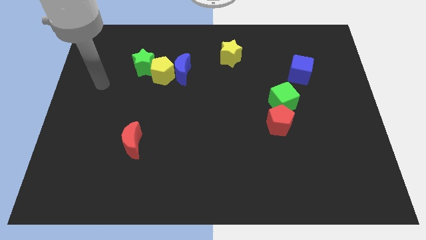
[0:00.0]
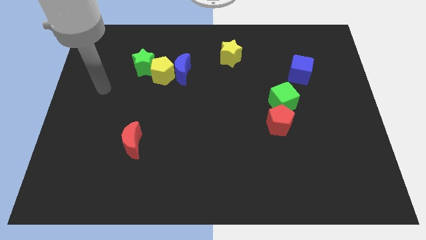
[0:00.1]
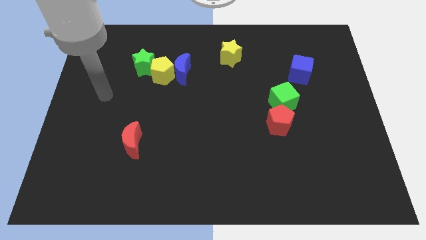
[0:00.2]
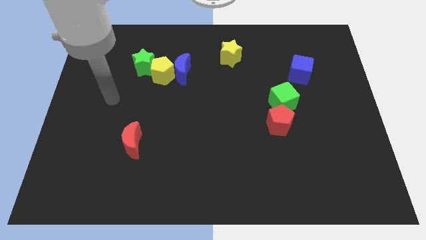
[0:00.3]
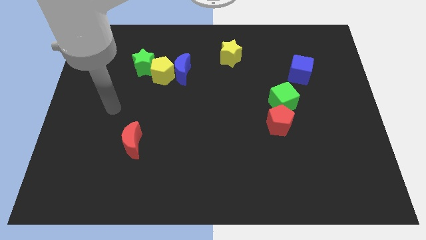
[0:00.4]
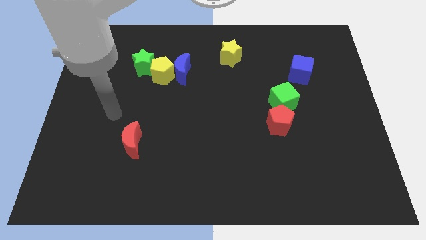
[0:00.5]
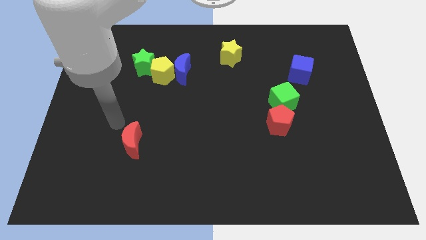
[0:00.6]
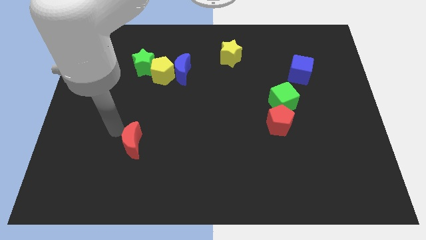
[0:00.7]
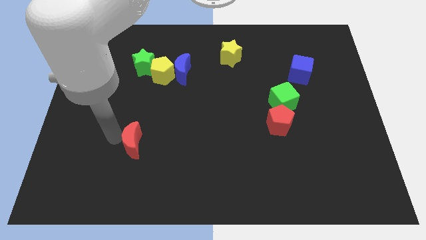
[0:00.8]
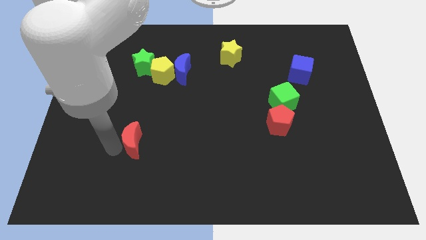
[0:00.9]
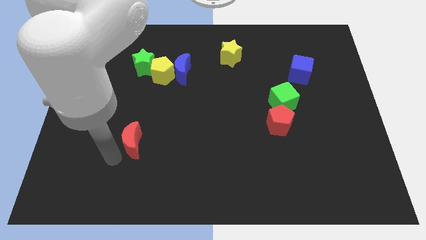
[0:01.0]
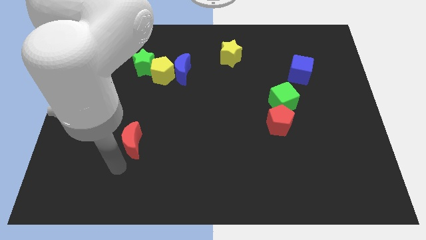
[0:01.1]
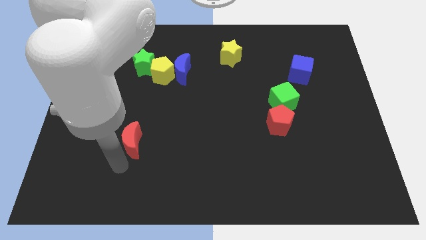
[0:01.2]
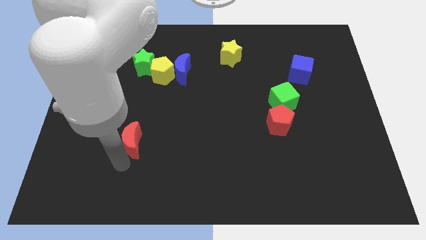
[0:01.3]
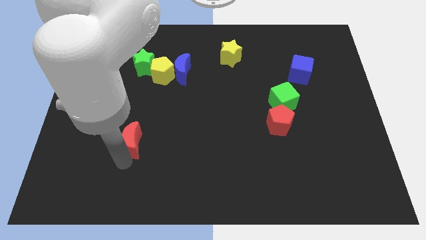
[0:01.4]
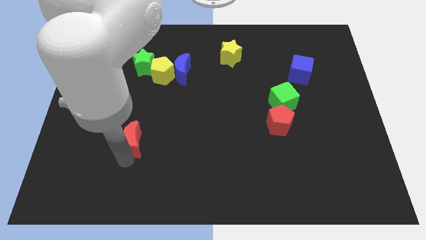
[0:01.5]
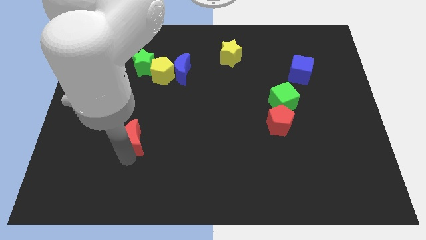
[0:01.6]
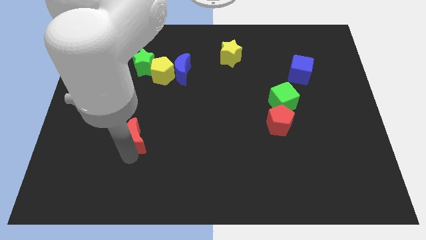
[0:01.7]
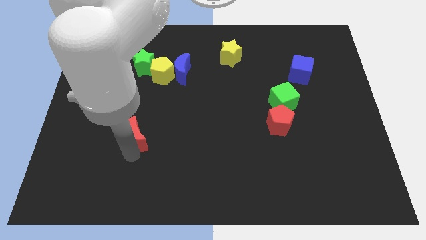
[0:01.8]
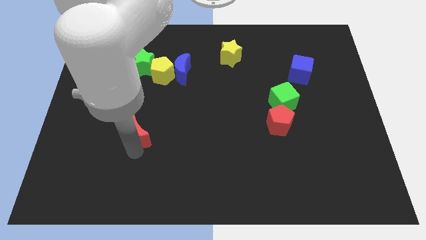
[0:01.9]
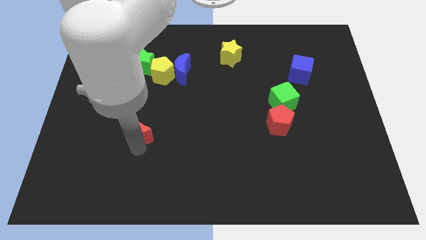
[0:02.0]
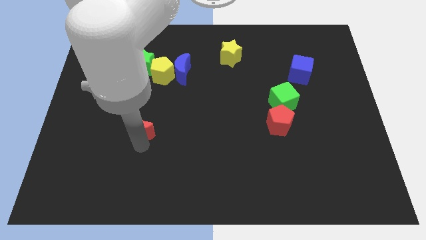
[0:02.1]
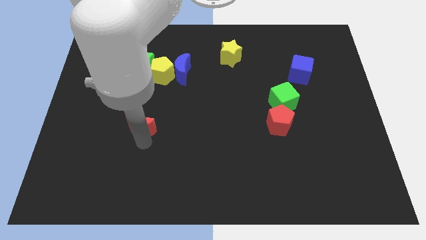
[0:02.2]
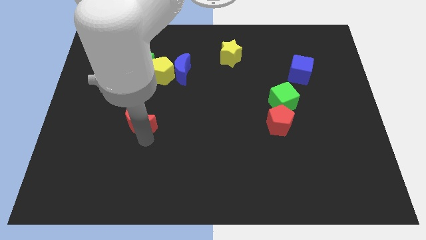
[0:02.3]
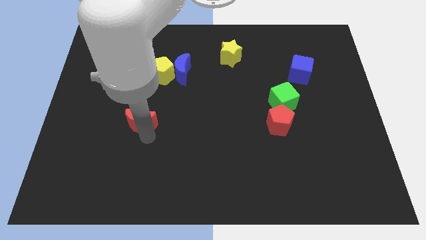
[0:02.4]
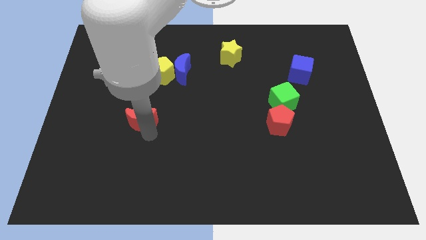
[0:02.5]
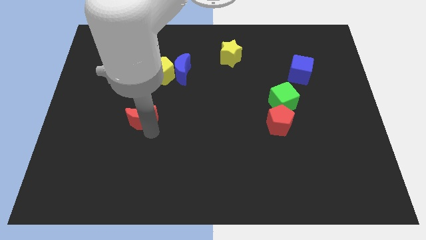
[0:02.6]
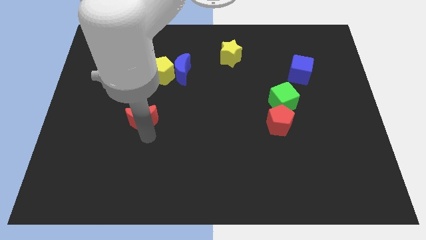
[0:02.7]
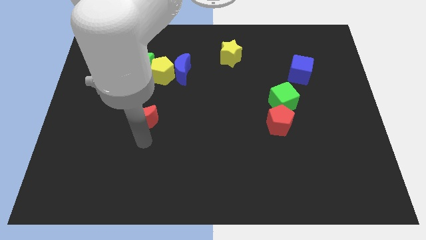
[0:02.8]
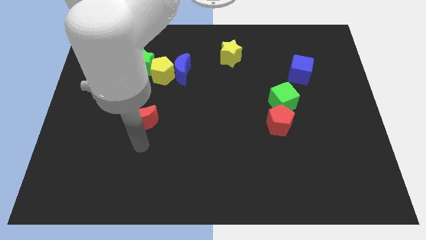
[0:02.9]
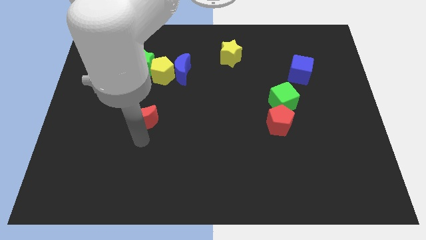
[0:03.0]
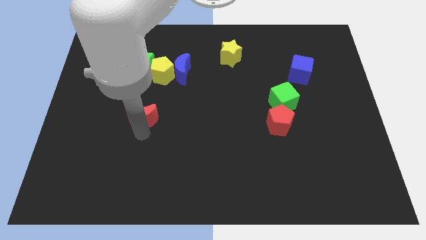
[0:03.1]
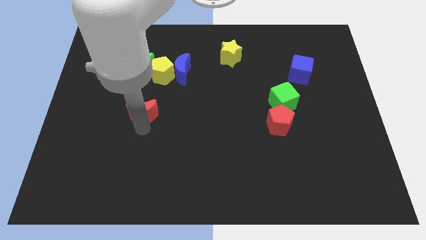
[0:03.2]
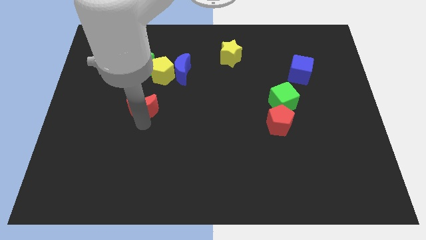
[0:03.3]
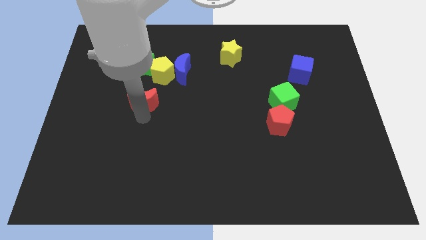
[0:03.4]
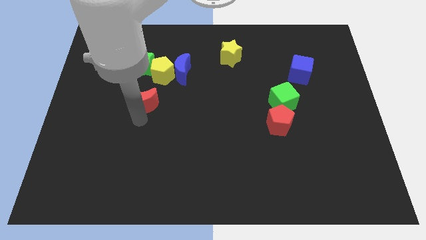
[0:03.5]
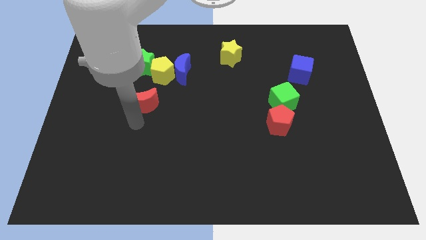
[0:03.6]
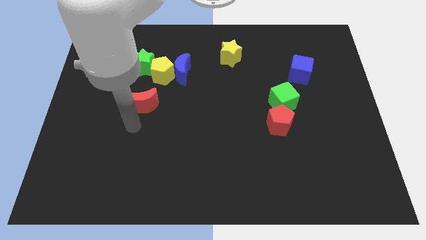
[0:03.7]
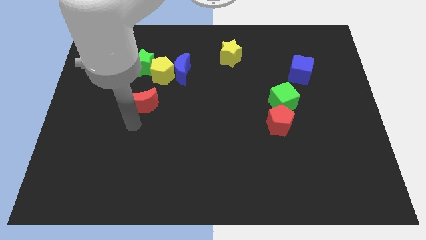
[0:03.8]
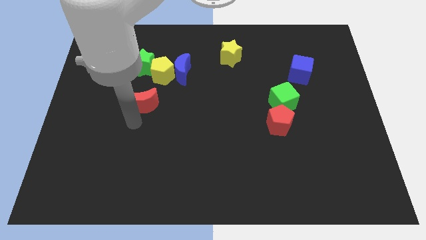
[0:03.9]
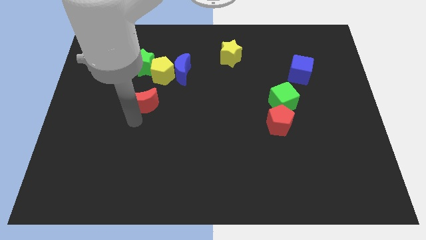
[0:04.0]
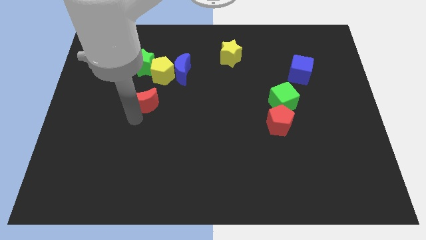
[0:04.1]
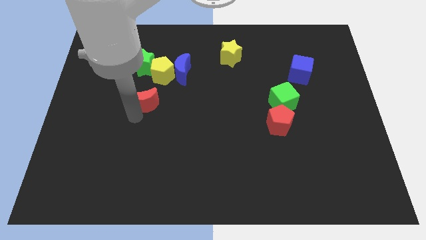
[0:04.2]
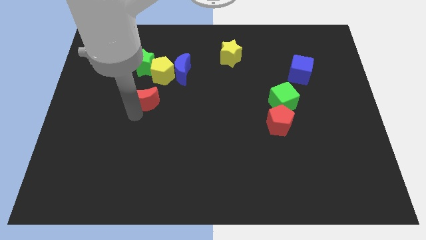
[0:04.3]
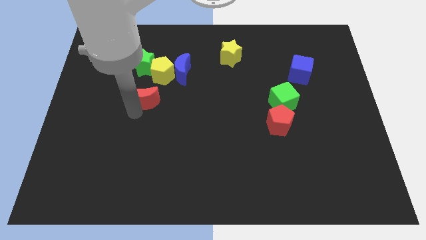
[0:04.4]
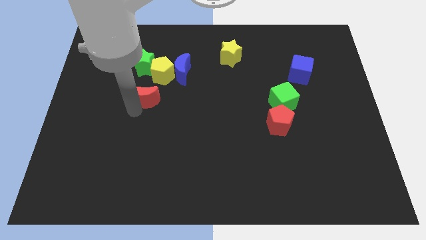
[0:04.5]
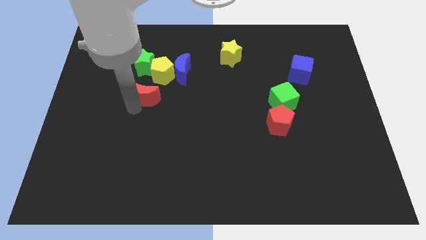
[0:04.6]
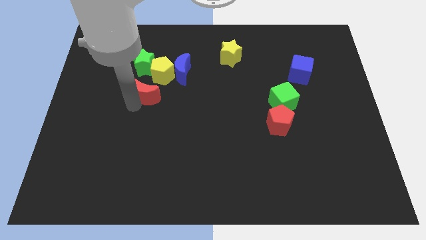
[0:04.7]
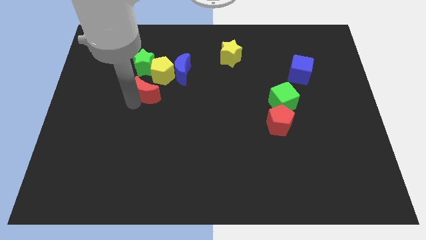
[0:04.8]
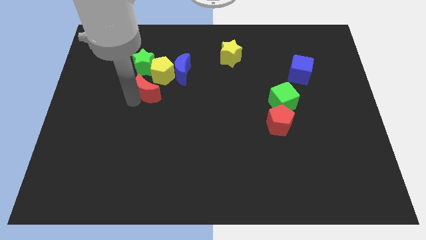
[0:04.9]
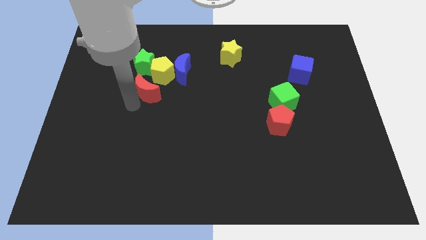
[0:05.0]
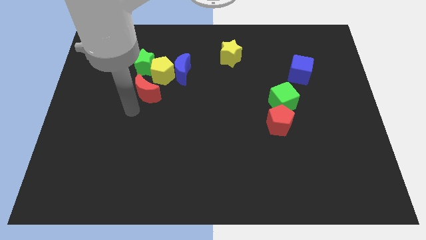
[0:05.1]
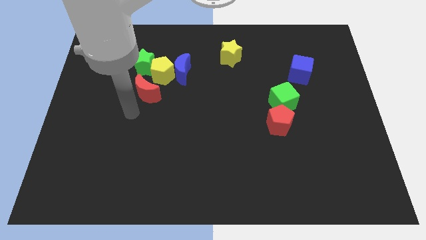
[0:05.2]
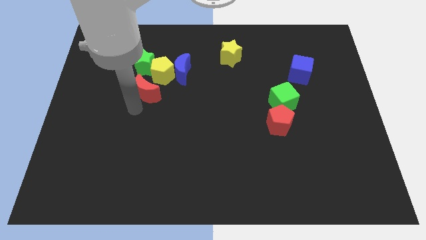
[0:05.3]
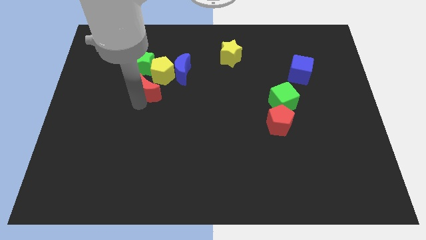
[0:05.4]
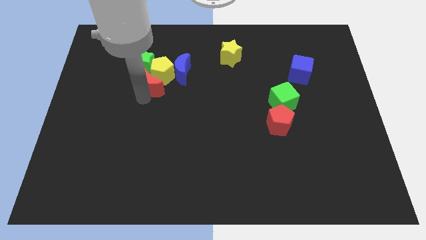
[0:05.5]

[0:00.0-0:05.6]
move the red moon close to the yellow pentagon

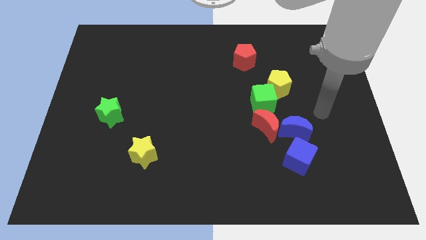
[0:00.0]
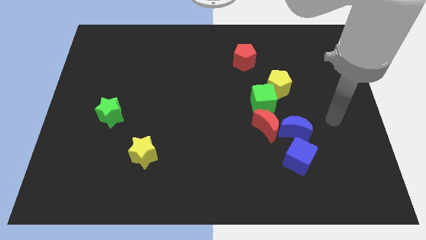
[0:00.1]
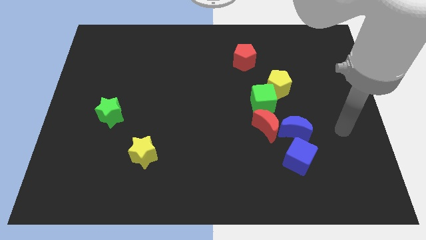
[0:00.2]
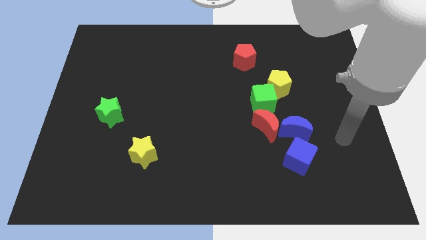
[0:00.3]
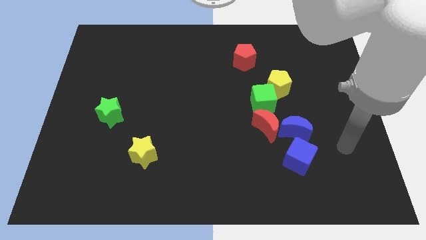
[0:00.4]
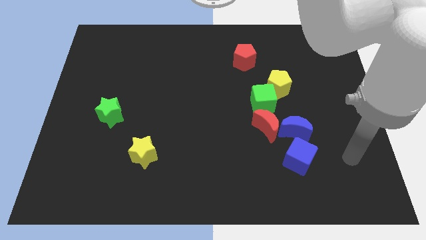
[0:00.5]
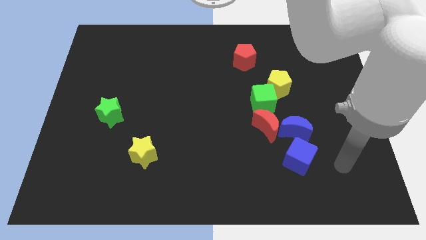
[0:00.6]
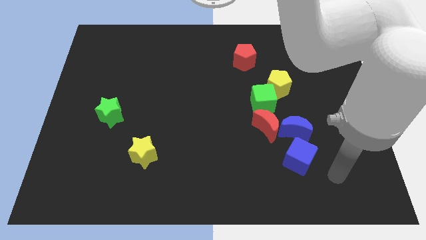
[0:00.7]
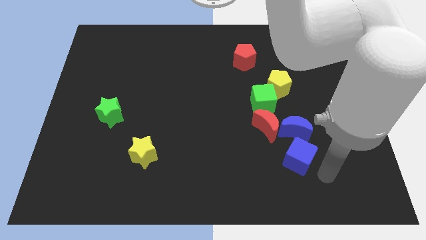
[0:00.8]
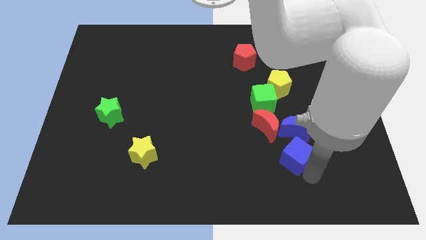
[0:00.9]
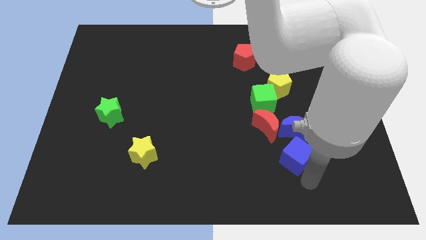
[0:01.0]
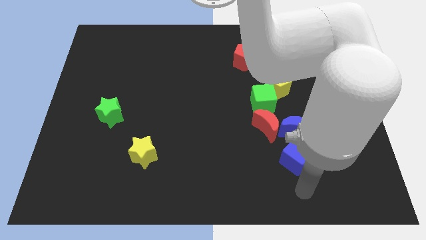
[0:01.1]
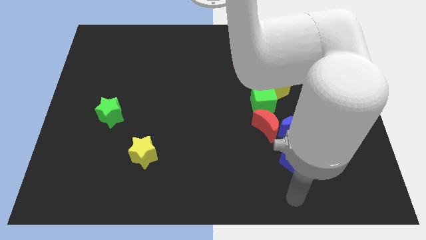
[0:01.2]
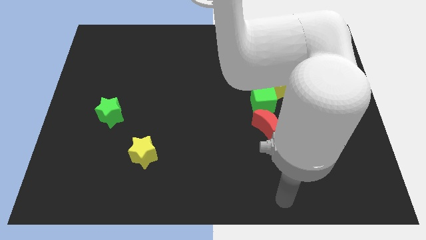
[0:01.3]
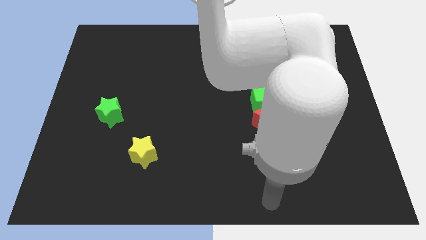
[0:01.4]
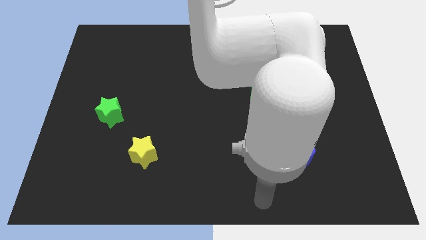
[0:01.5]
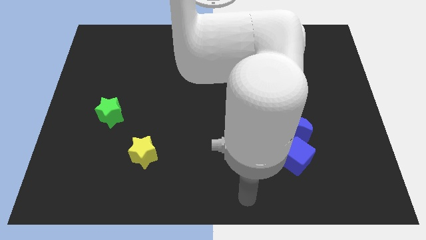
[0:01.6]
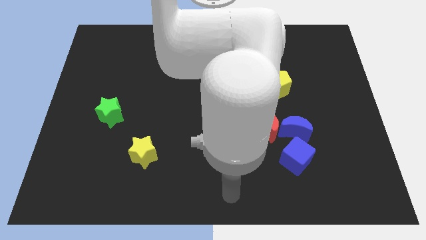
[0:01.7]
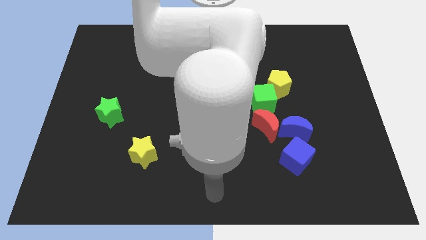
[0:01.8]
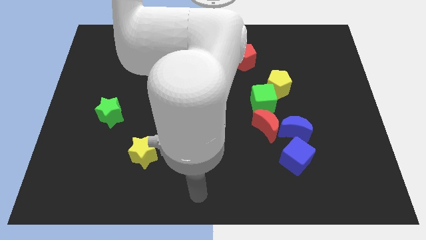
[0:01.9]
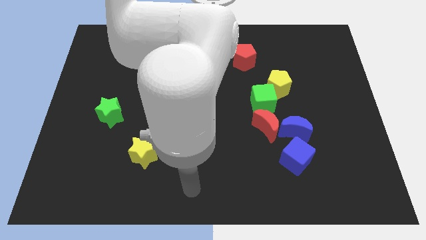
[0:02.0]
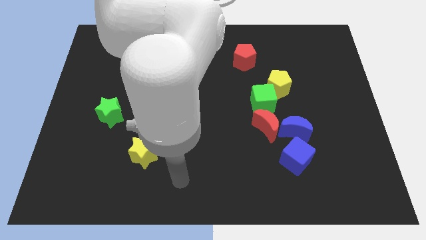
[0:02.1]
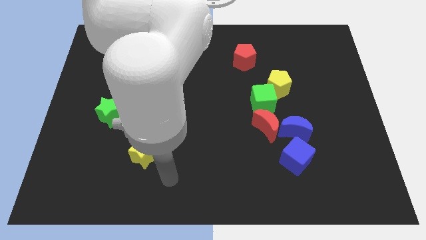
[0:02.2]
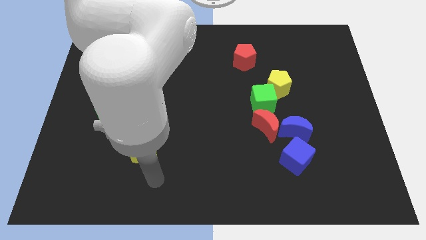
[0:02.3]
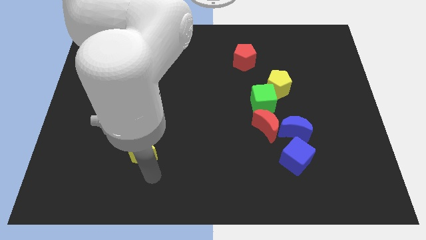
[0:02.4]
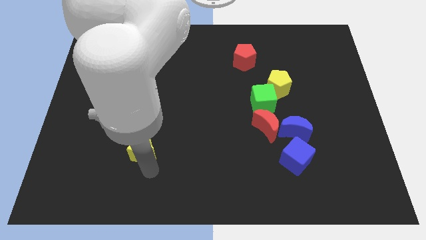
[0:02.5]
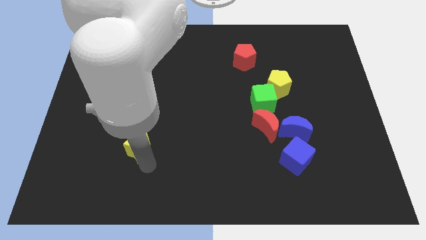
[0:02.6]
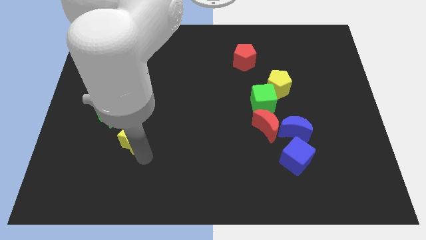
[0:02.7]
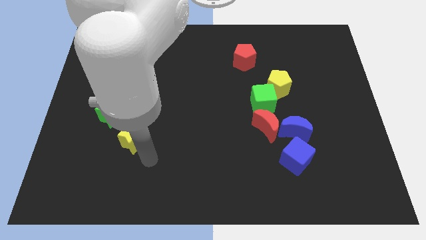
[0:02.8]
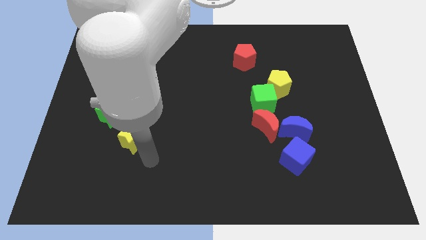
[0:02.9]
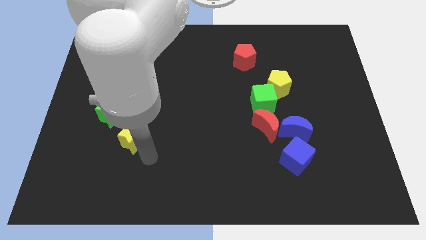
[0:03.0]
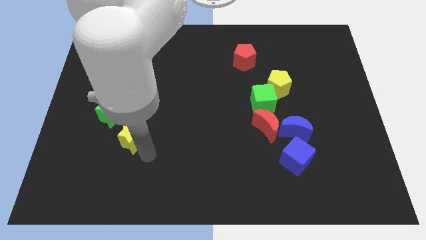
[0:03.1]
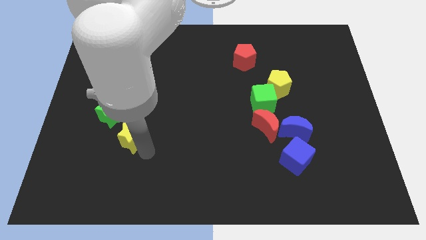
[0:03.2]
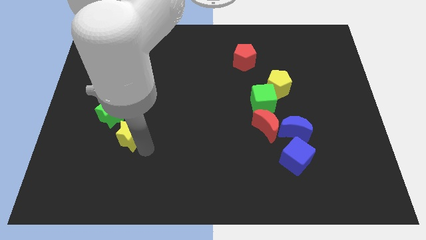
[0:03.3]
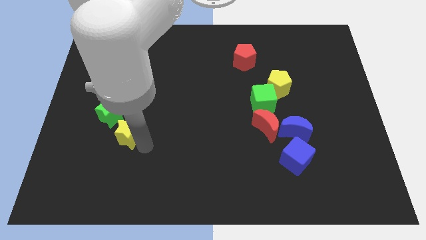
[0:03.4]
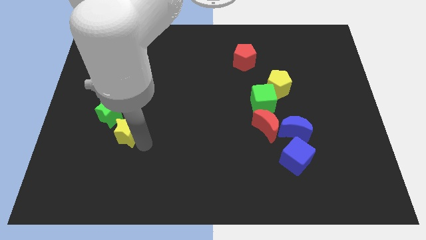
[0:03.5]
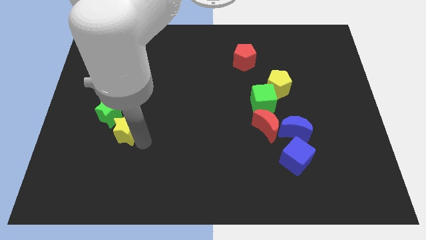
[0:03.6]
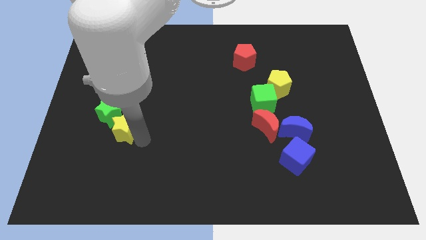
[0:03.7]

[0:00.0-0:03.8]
push the yellow star towards the green star
